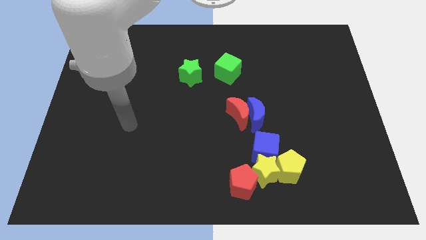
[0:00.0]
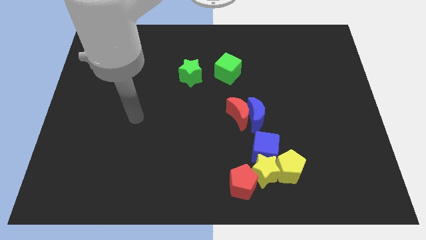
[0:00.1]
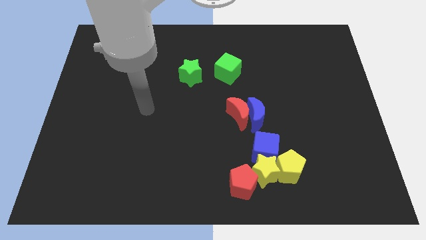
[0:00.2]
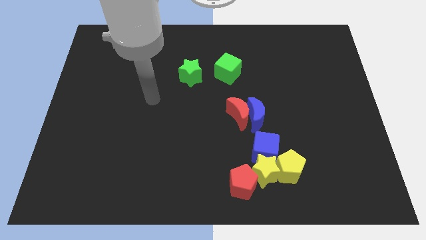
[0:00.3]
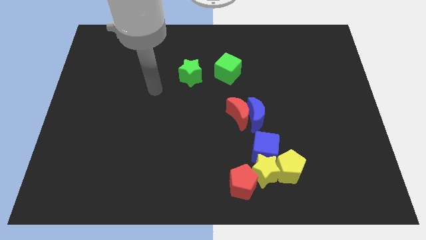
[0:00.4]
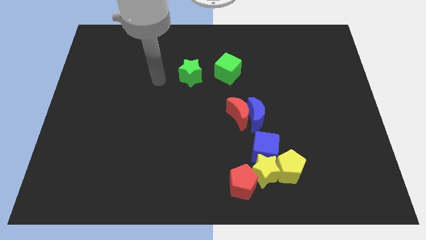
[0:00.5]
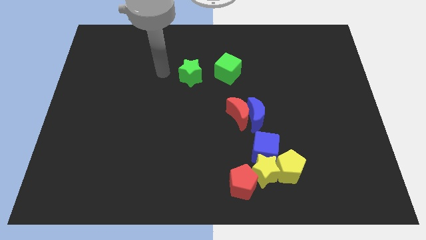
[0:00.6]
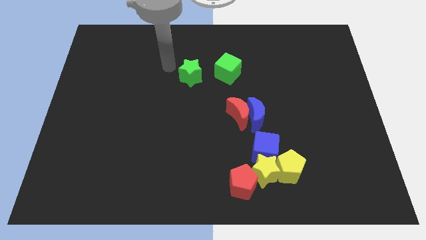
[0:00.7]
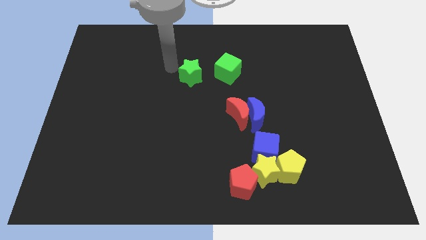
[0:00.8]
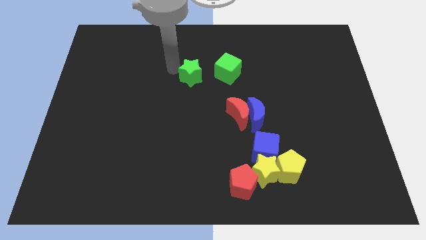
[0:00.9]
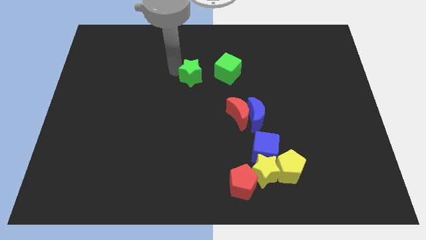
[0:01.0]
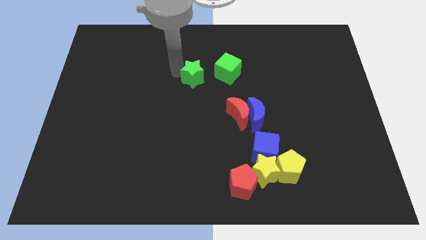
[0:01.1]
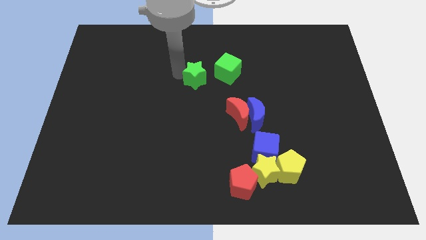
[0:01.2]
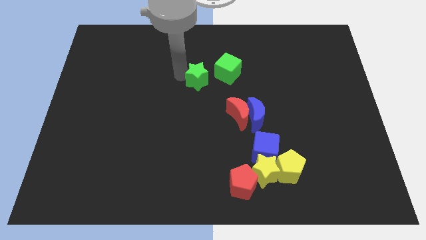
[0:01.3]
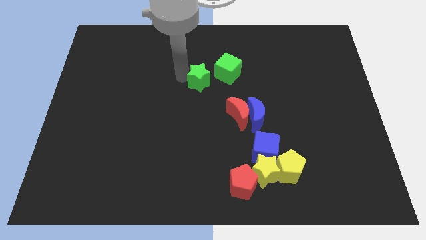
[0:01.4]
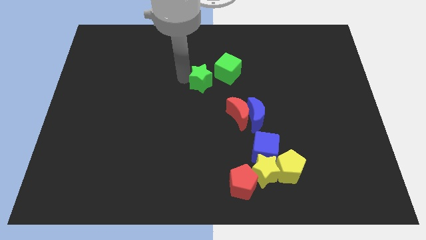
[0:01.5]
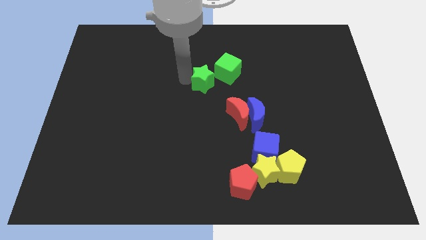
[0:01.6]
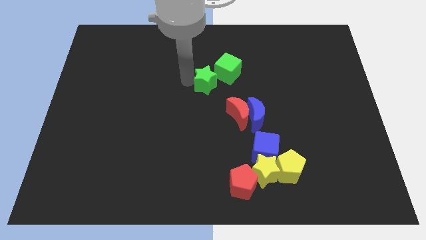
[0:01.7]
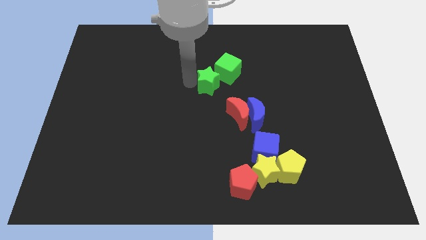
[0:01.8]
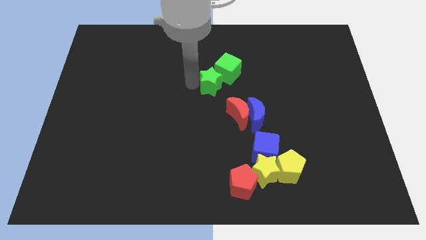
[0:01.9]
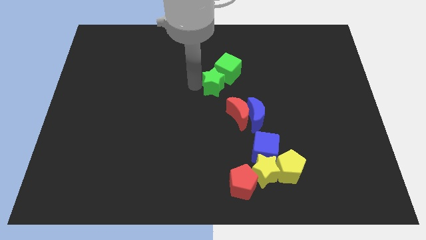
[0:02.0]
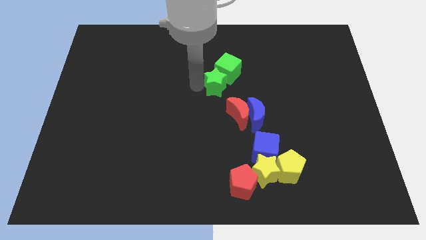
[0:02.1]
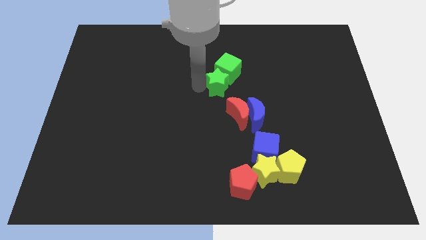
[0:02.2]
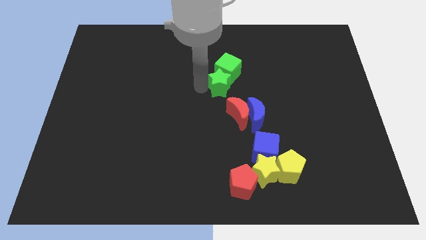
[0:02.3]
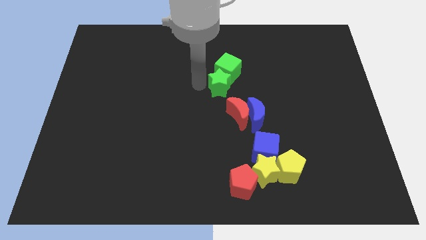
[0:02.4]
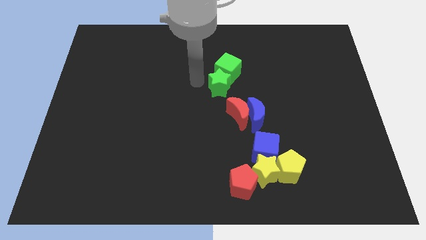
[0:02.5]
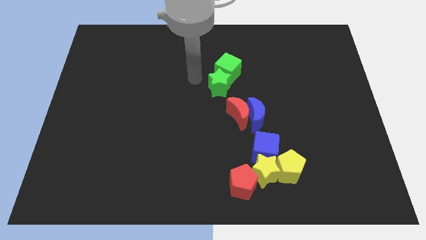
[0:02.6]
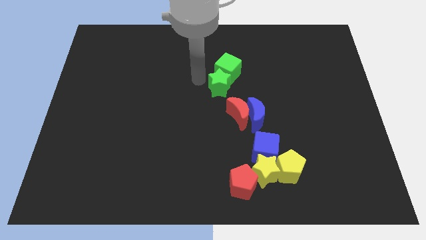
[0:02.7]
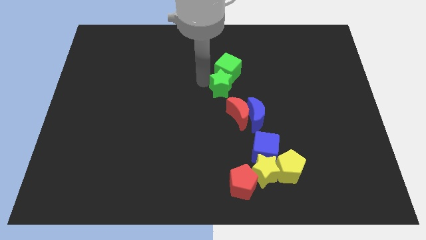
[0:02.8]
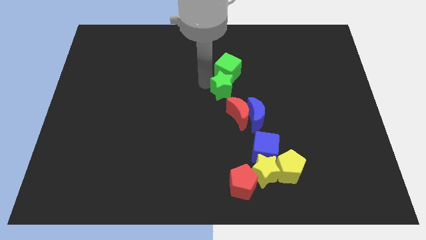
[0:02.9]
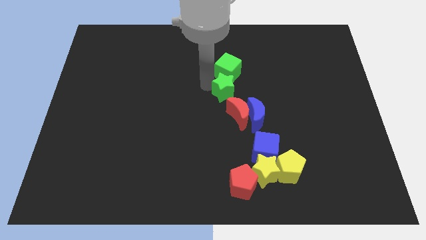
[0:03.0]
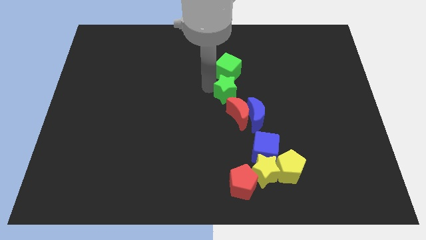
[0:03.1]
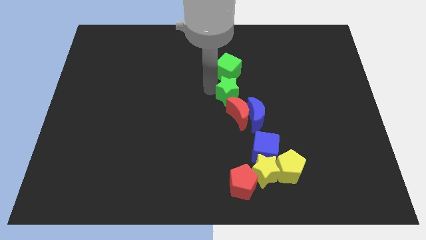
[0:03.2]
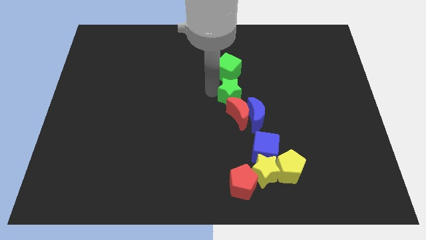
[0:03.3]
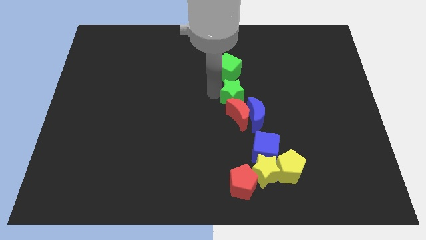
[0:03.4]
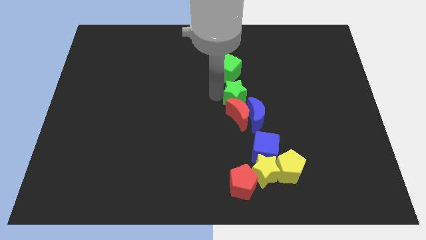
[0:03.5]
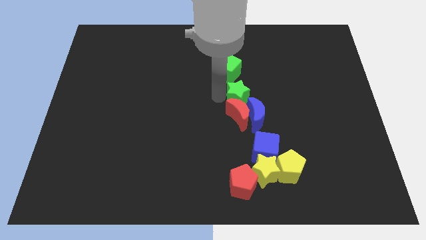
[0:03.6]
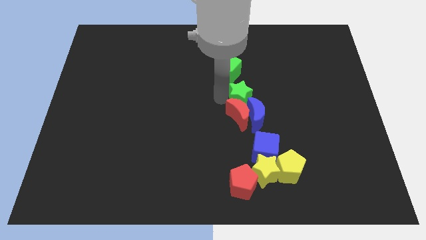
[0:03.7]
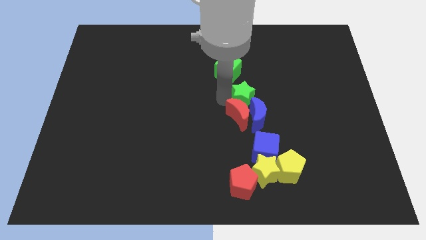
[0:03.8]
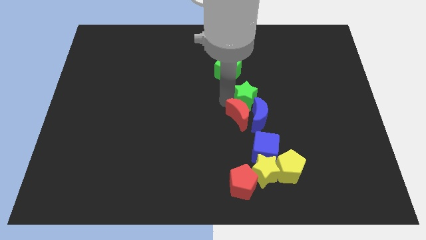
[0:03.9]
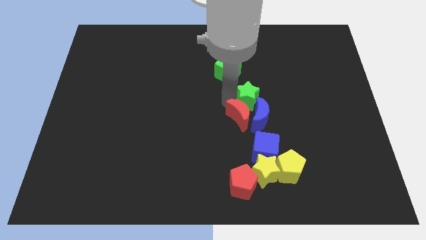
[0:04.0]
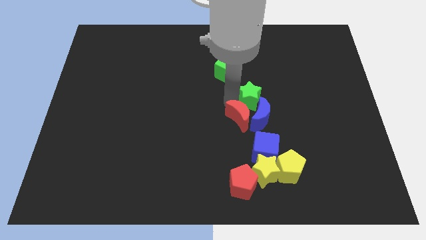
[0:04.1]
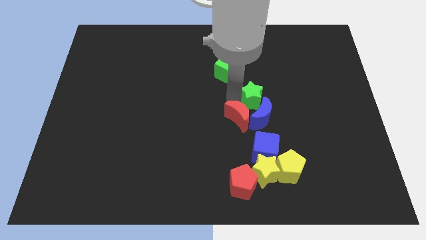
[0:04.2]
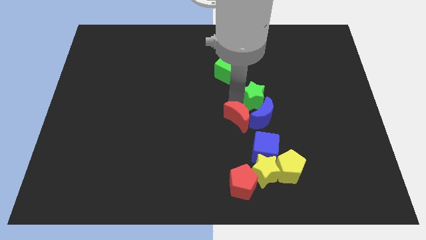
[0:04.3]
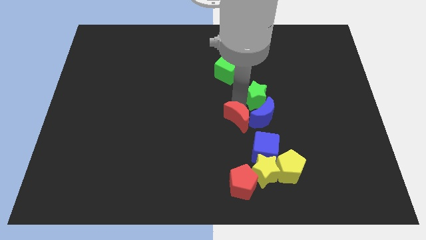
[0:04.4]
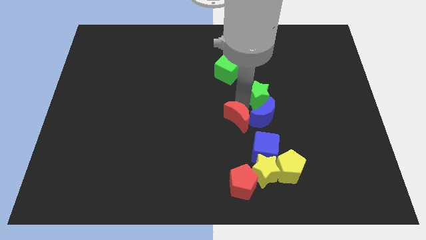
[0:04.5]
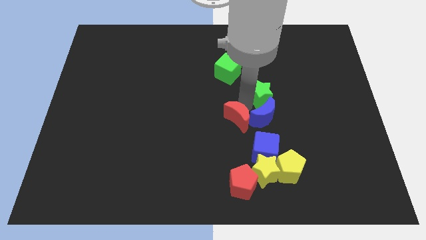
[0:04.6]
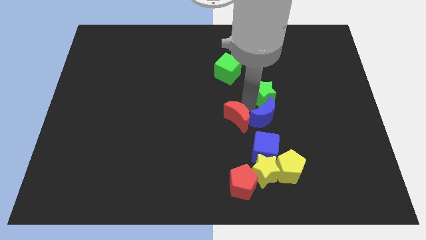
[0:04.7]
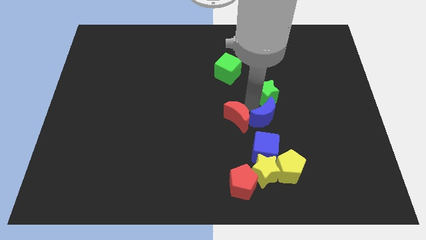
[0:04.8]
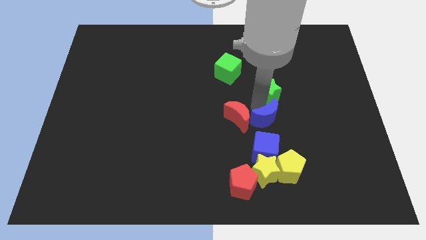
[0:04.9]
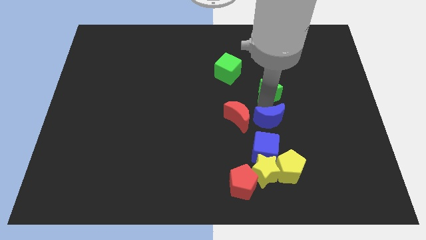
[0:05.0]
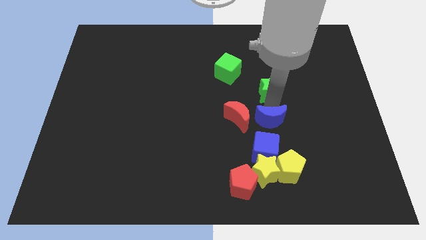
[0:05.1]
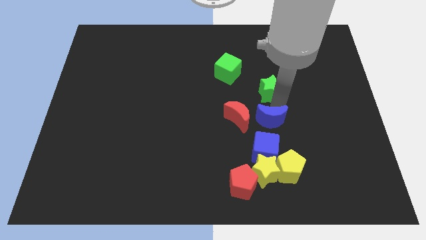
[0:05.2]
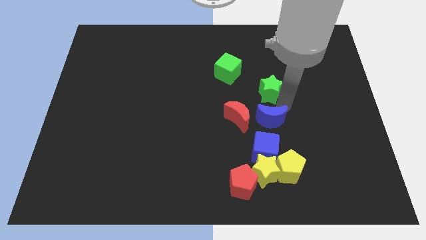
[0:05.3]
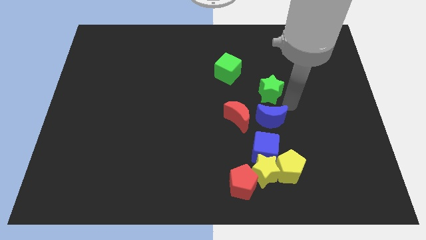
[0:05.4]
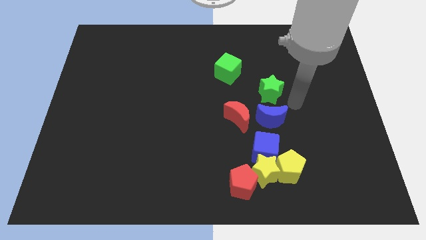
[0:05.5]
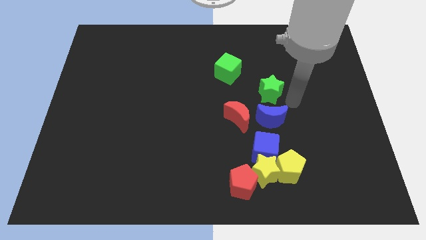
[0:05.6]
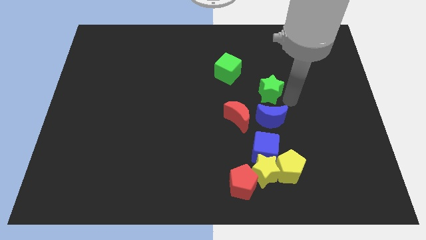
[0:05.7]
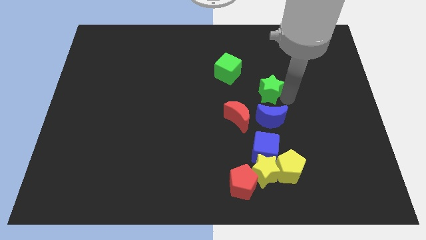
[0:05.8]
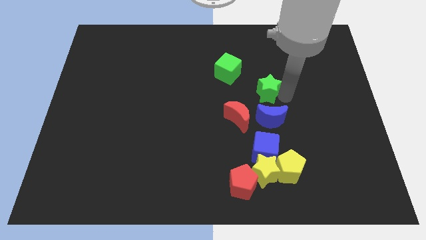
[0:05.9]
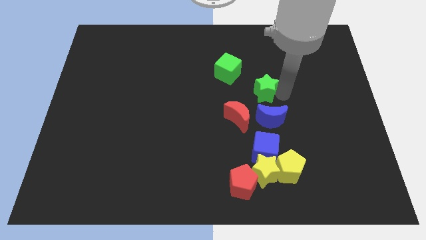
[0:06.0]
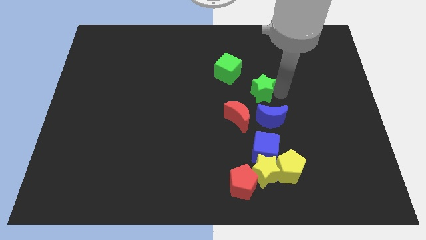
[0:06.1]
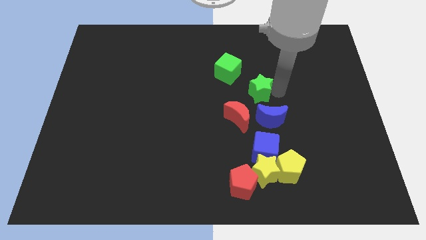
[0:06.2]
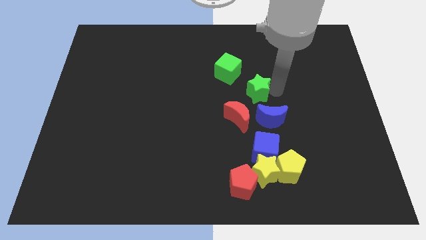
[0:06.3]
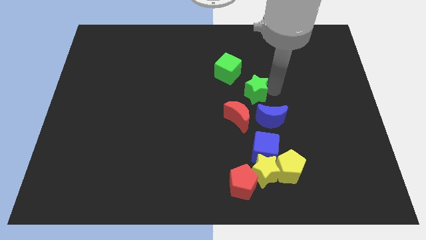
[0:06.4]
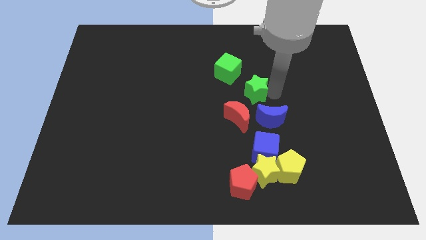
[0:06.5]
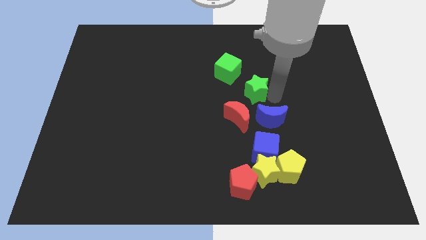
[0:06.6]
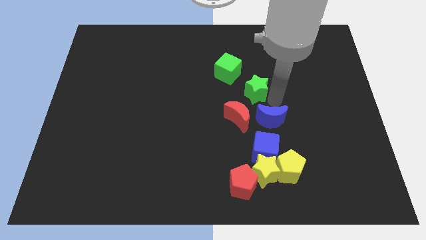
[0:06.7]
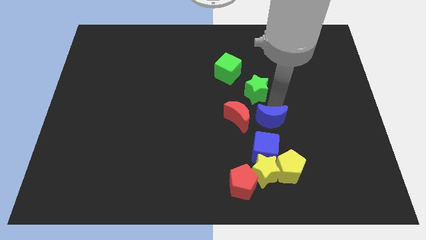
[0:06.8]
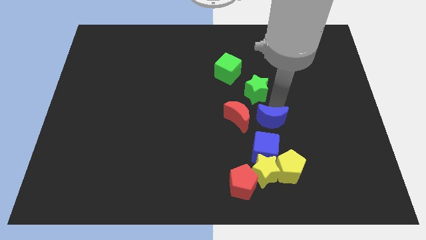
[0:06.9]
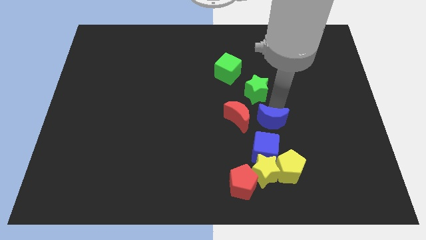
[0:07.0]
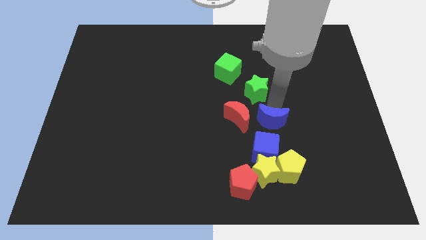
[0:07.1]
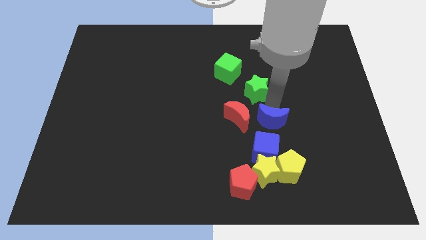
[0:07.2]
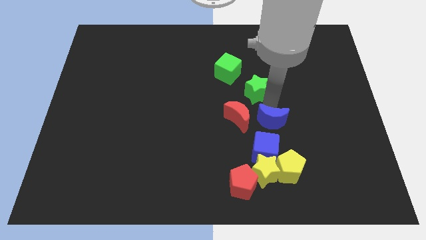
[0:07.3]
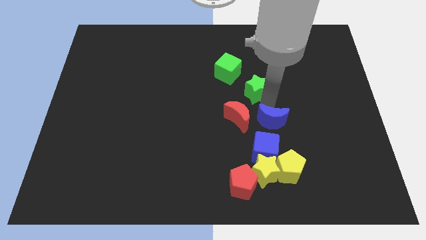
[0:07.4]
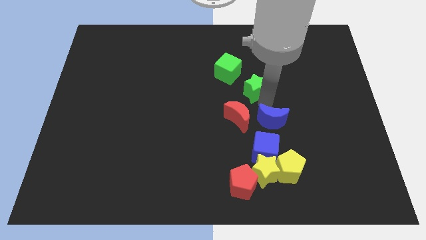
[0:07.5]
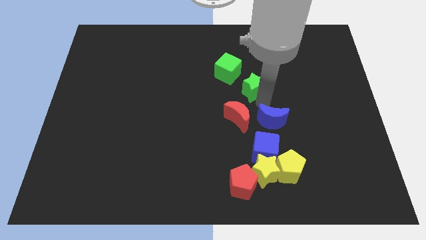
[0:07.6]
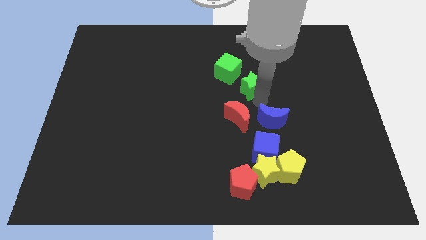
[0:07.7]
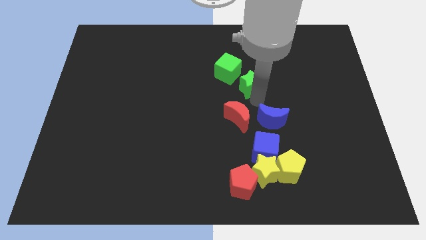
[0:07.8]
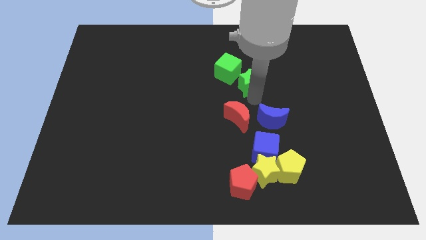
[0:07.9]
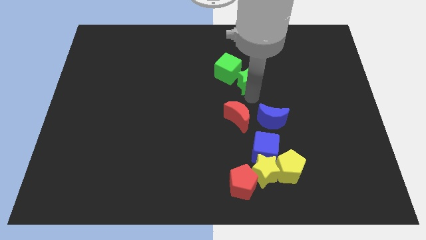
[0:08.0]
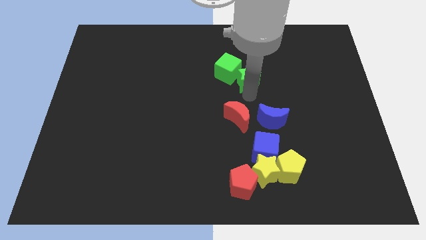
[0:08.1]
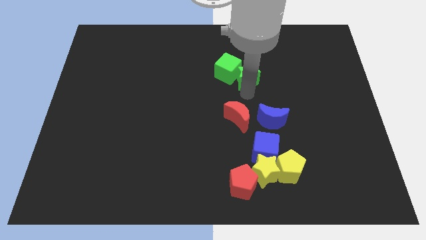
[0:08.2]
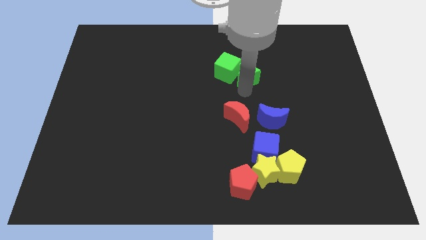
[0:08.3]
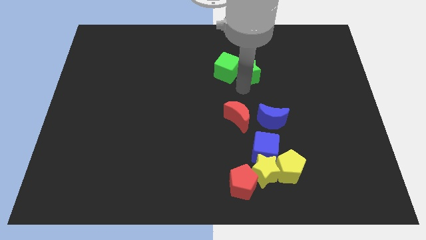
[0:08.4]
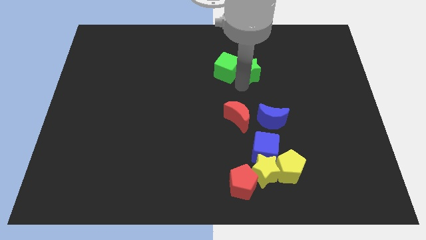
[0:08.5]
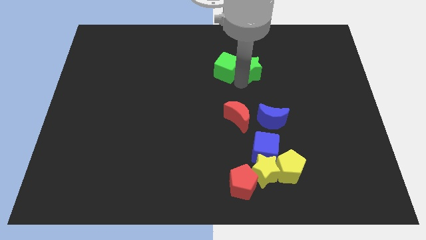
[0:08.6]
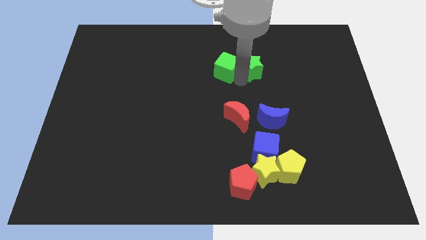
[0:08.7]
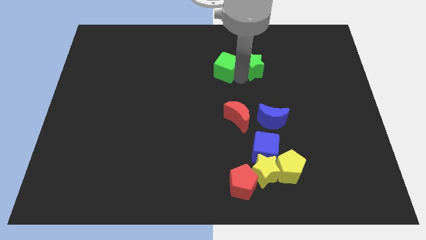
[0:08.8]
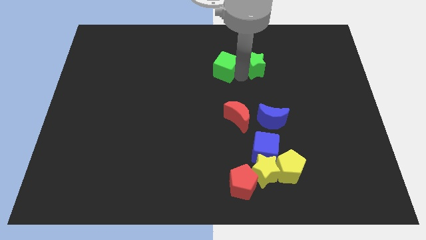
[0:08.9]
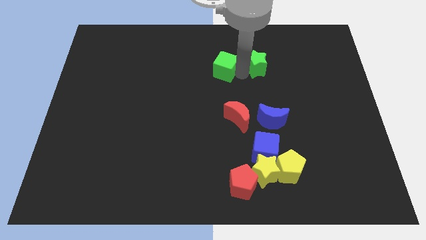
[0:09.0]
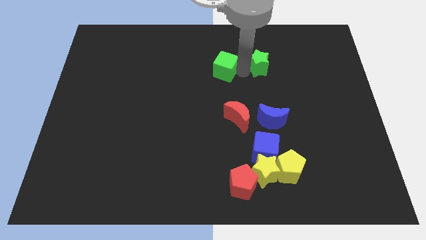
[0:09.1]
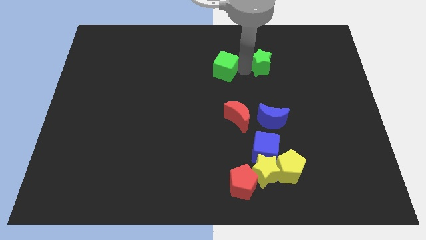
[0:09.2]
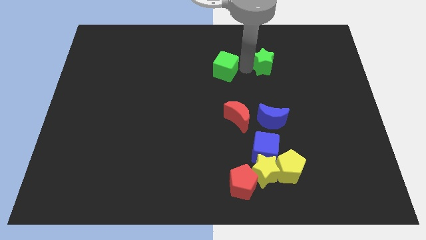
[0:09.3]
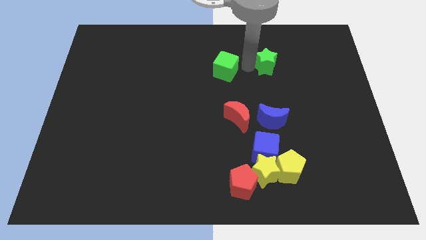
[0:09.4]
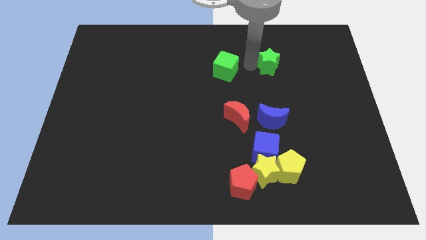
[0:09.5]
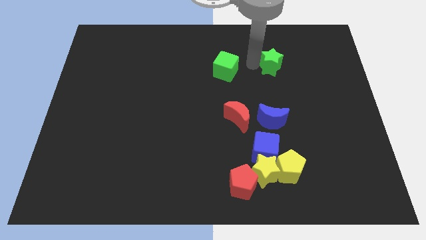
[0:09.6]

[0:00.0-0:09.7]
move the green star to the right
